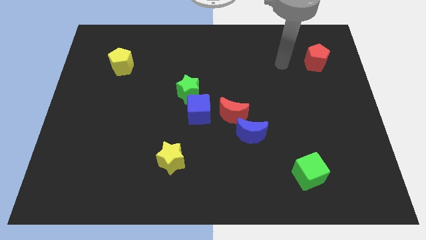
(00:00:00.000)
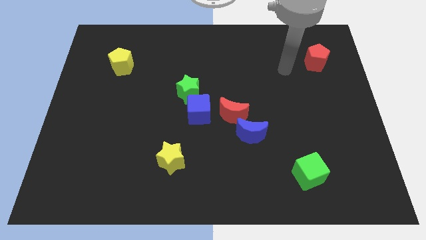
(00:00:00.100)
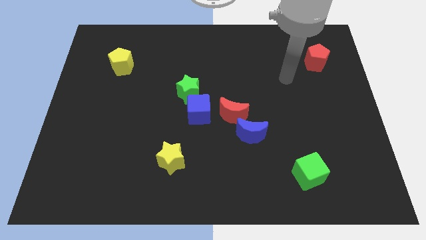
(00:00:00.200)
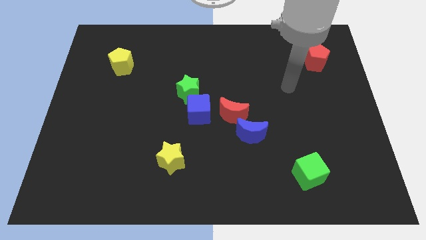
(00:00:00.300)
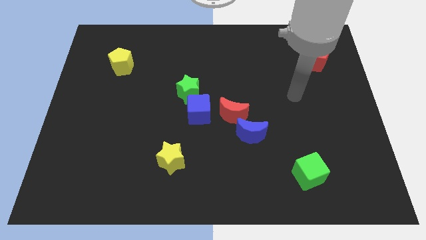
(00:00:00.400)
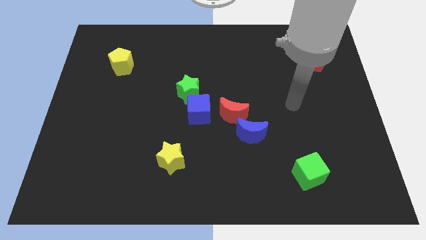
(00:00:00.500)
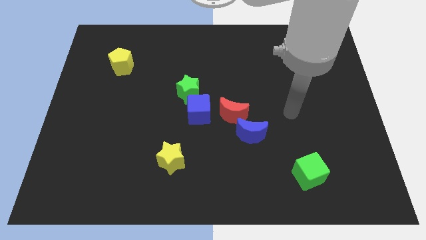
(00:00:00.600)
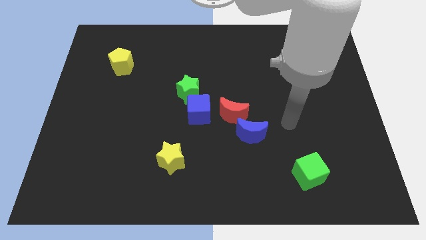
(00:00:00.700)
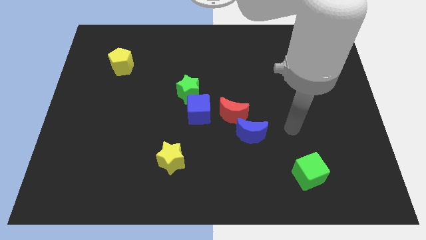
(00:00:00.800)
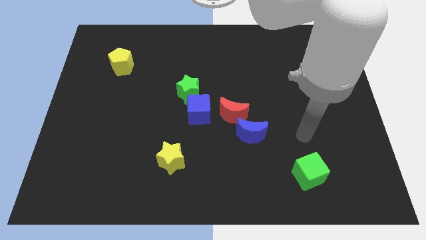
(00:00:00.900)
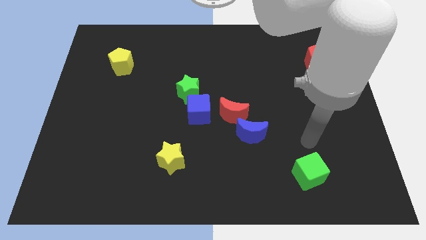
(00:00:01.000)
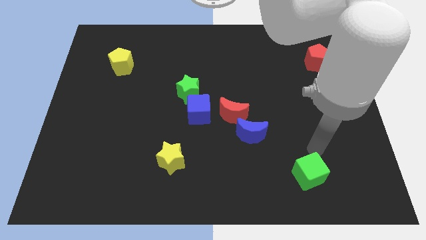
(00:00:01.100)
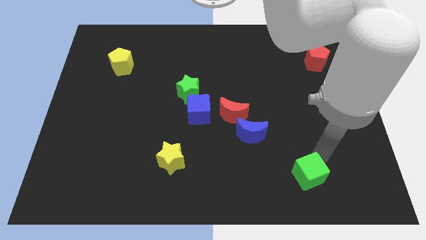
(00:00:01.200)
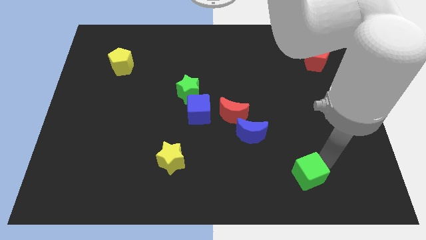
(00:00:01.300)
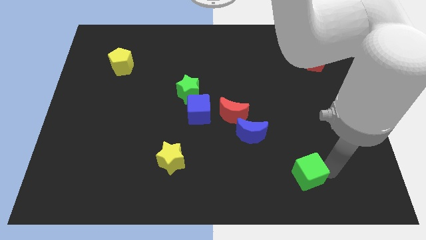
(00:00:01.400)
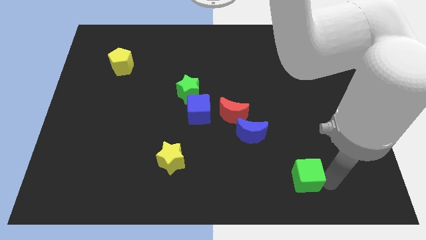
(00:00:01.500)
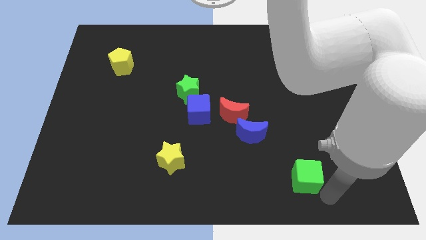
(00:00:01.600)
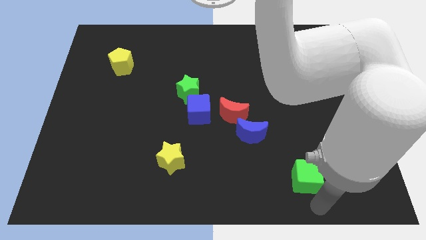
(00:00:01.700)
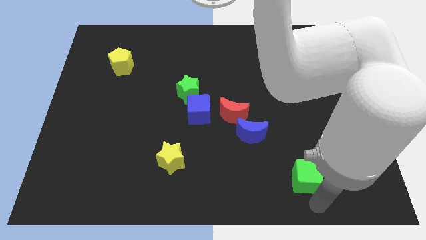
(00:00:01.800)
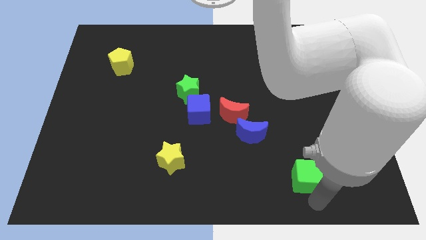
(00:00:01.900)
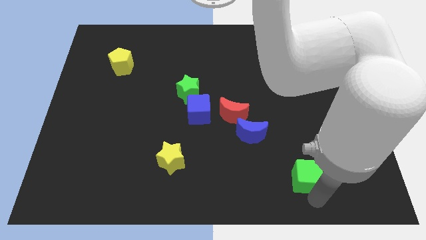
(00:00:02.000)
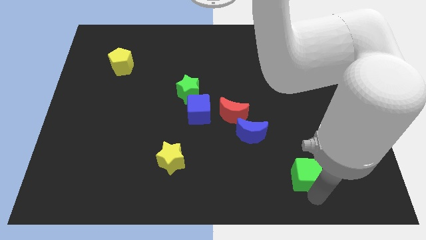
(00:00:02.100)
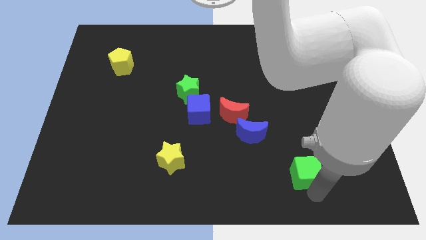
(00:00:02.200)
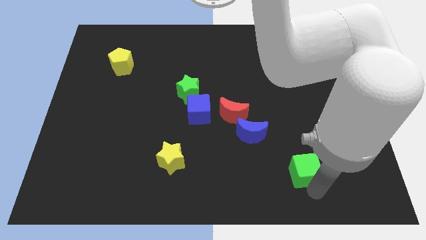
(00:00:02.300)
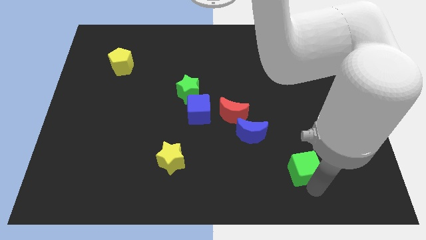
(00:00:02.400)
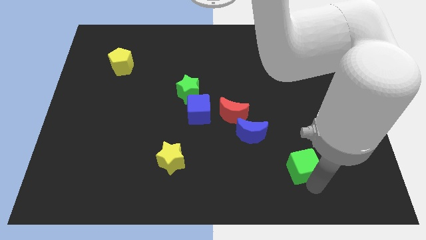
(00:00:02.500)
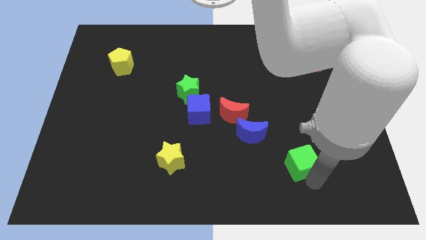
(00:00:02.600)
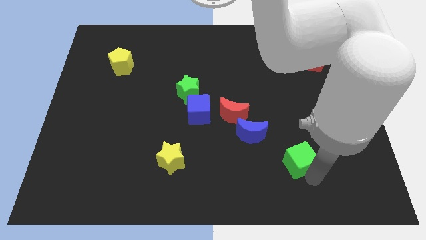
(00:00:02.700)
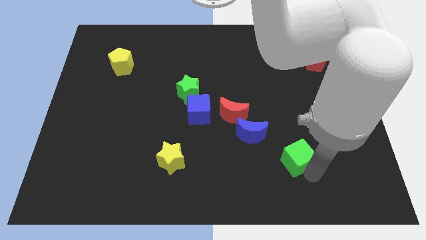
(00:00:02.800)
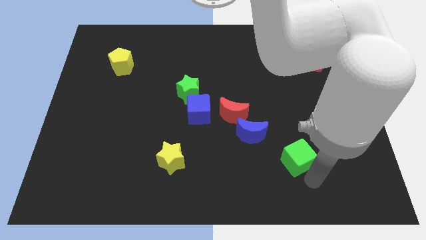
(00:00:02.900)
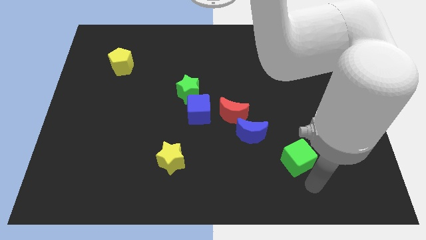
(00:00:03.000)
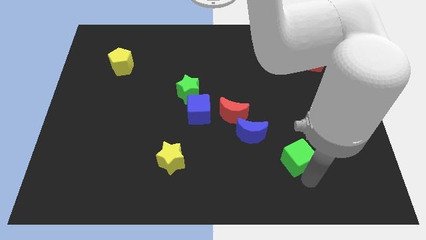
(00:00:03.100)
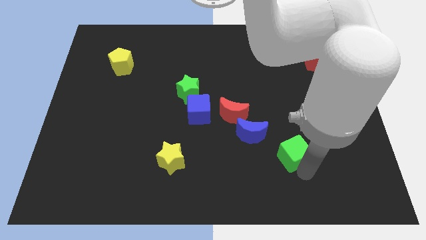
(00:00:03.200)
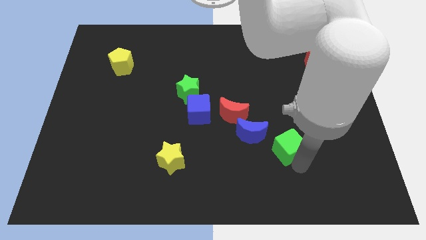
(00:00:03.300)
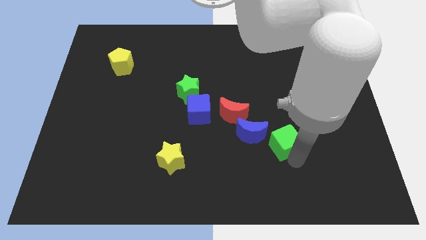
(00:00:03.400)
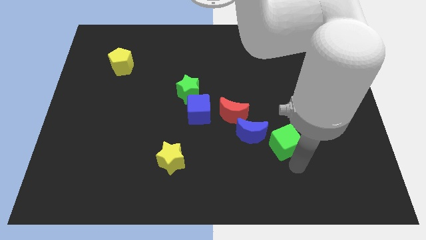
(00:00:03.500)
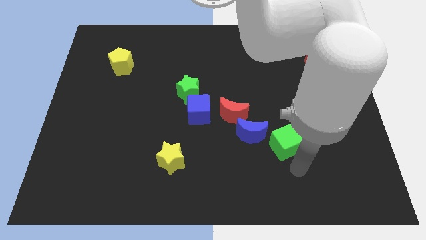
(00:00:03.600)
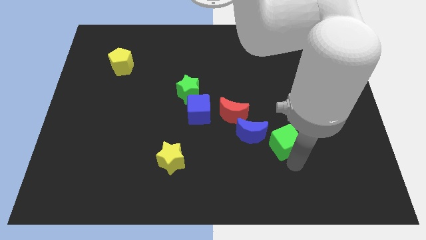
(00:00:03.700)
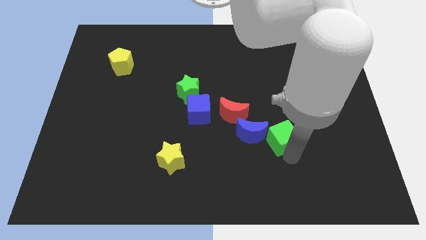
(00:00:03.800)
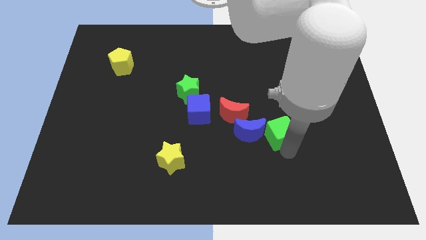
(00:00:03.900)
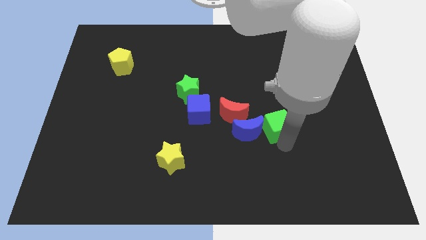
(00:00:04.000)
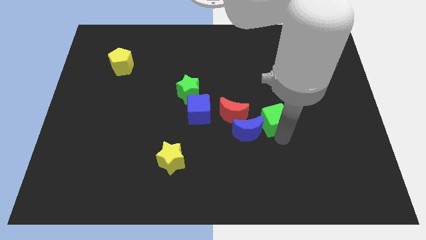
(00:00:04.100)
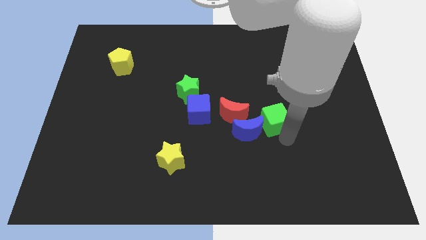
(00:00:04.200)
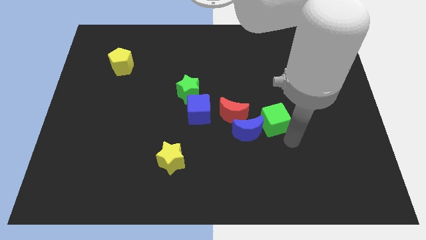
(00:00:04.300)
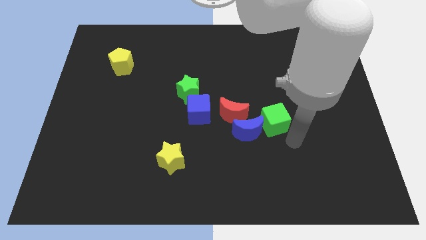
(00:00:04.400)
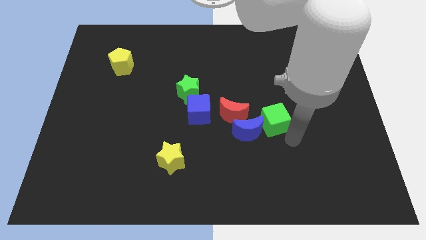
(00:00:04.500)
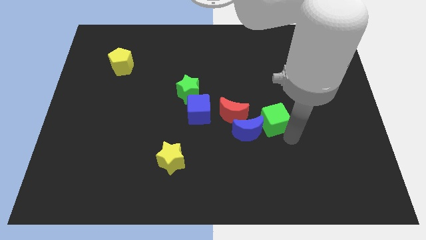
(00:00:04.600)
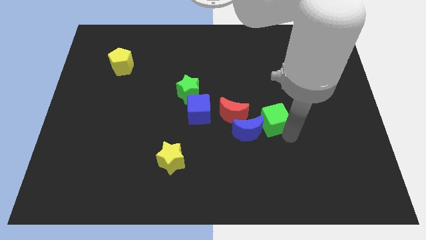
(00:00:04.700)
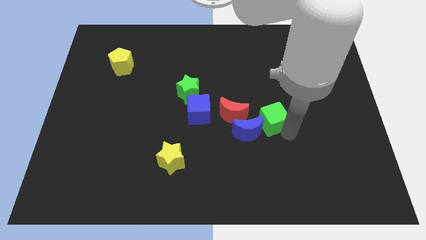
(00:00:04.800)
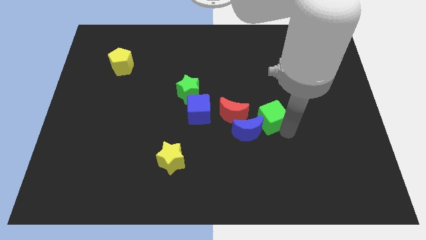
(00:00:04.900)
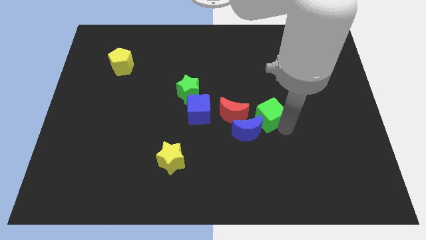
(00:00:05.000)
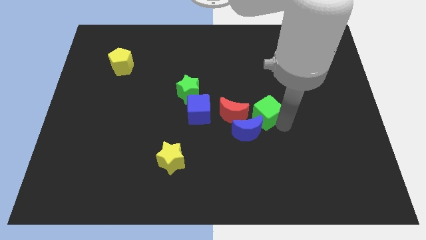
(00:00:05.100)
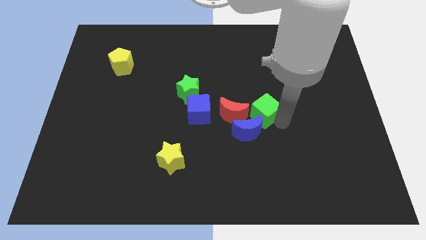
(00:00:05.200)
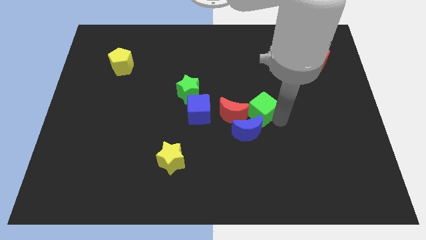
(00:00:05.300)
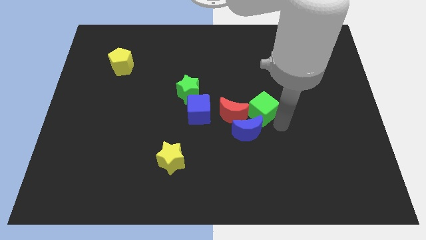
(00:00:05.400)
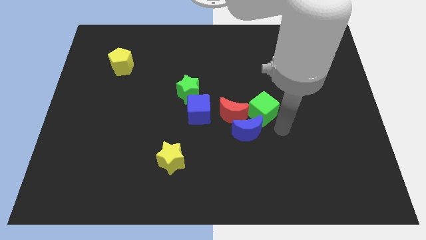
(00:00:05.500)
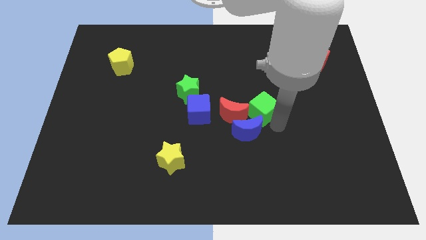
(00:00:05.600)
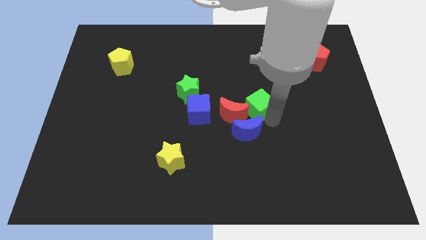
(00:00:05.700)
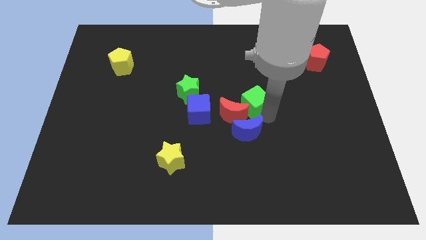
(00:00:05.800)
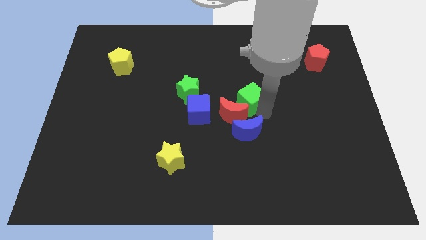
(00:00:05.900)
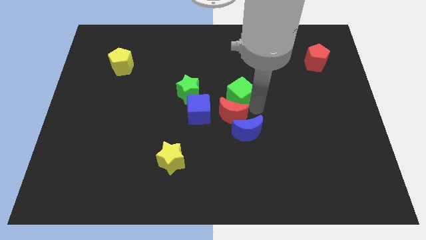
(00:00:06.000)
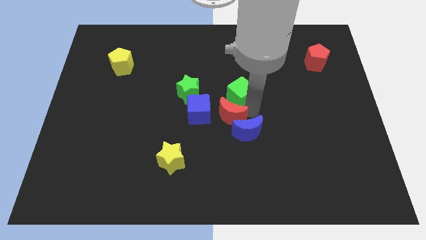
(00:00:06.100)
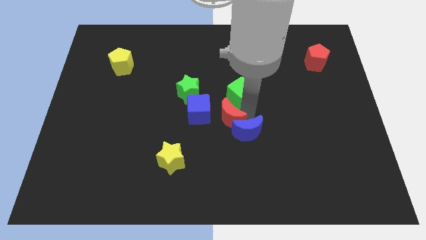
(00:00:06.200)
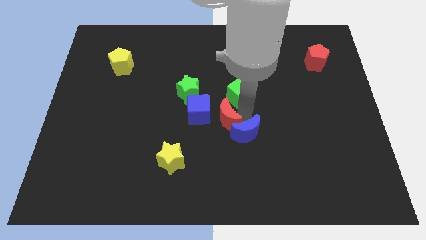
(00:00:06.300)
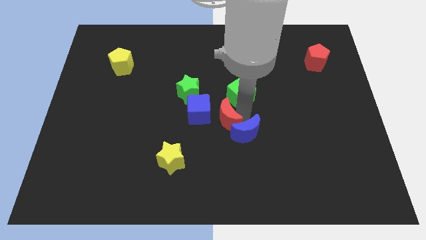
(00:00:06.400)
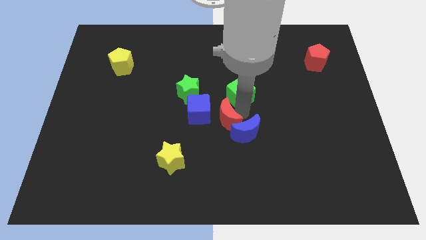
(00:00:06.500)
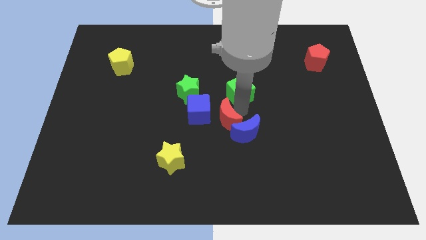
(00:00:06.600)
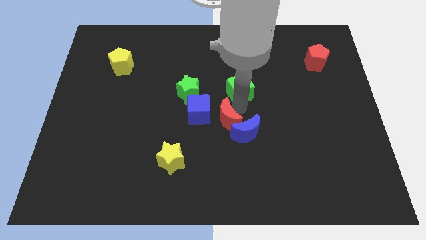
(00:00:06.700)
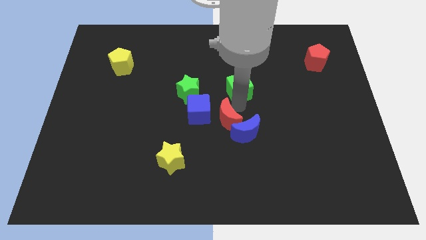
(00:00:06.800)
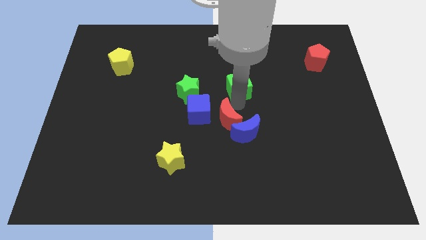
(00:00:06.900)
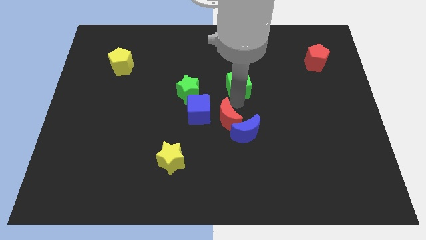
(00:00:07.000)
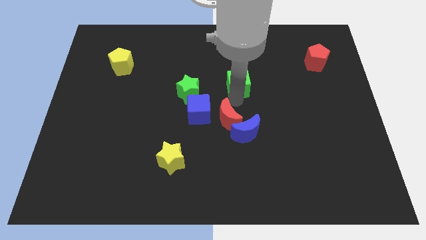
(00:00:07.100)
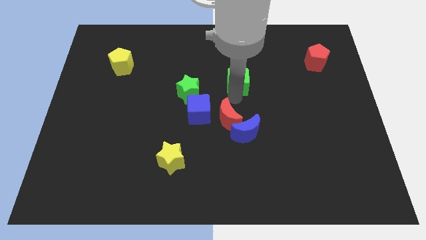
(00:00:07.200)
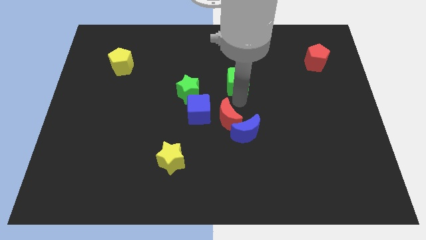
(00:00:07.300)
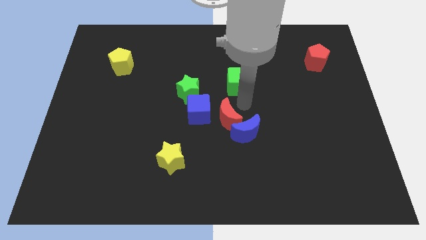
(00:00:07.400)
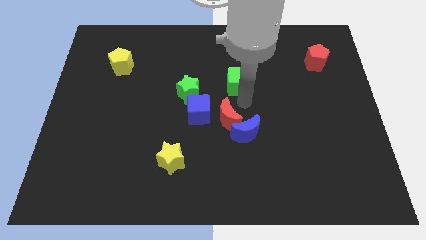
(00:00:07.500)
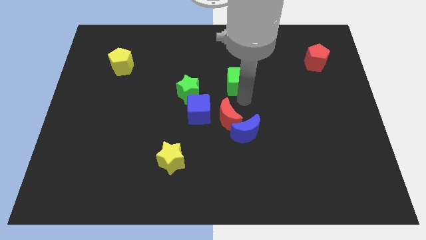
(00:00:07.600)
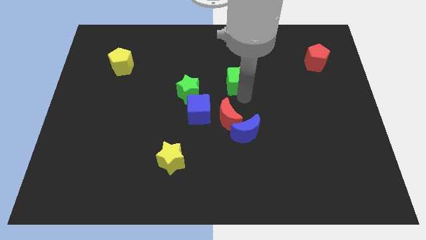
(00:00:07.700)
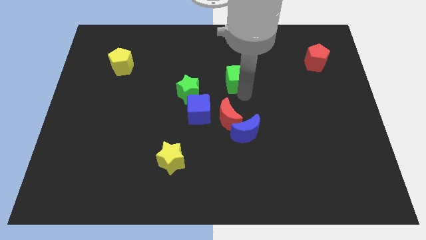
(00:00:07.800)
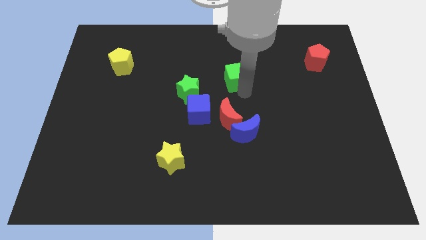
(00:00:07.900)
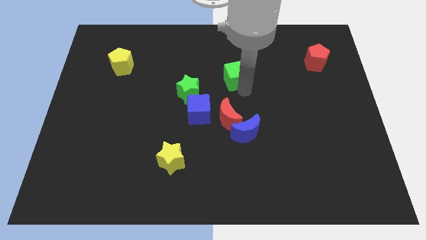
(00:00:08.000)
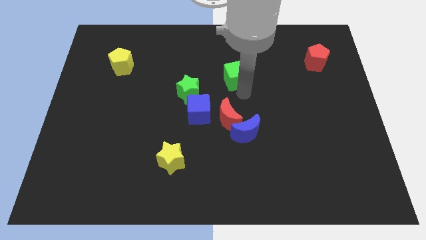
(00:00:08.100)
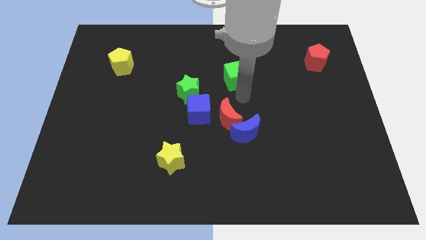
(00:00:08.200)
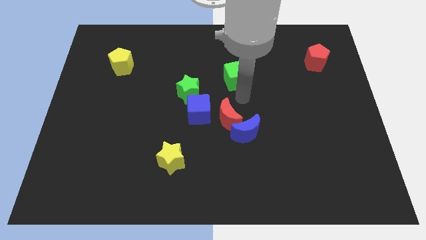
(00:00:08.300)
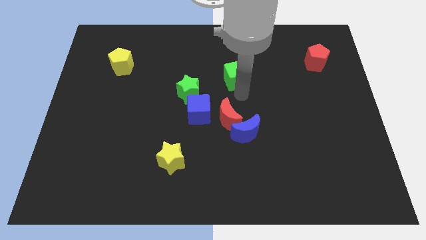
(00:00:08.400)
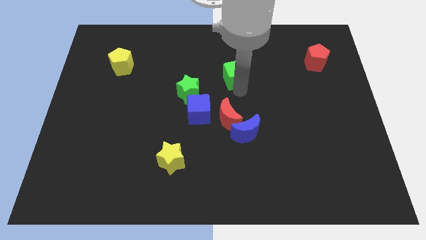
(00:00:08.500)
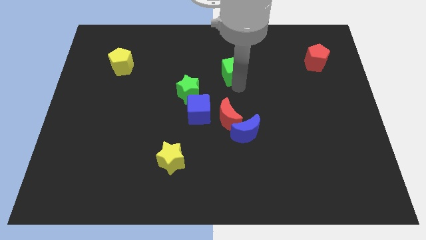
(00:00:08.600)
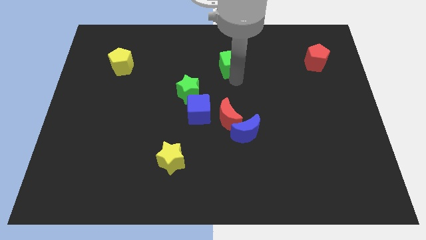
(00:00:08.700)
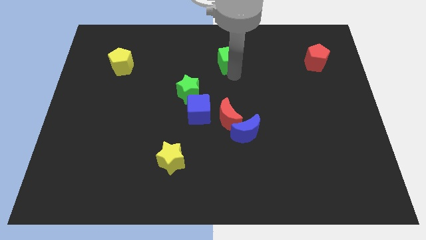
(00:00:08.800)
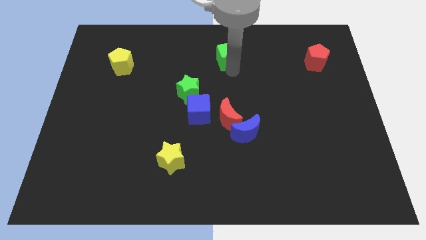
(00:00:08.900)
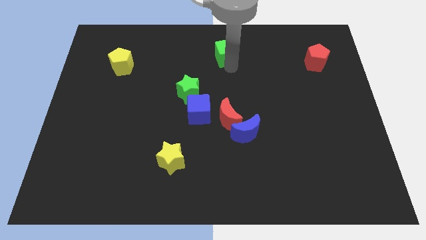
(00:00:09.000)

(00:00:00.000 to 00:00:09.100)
put the green cube to the top
